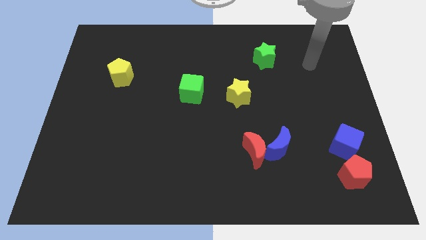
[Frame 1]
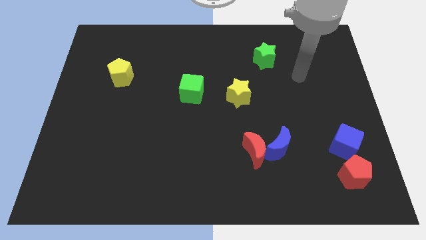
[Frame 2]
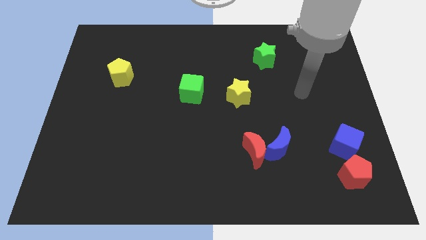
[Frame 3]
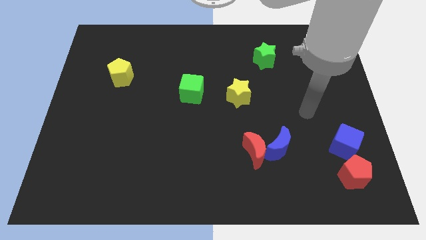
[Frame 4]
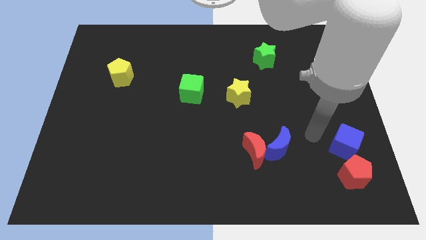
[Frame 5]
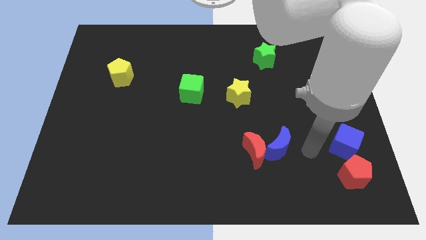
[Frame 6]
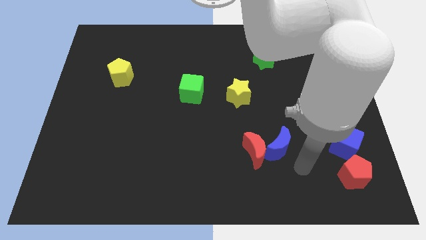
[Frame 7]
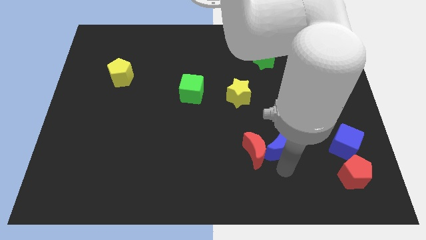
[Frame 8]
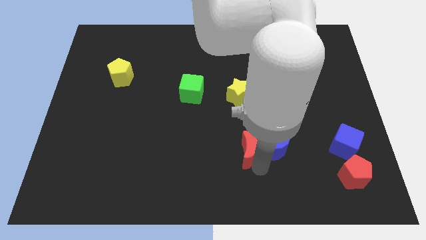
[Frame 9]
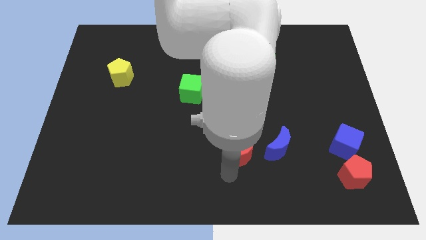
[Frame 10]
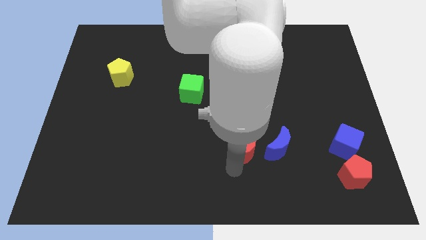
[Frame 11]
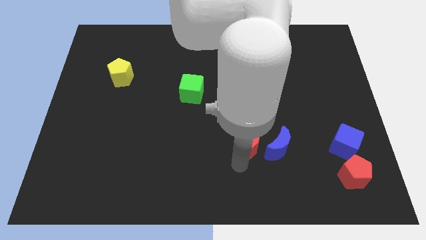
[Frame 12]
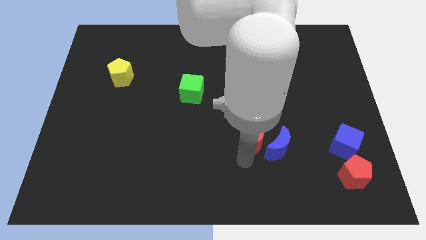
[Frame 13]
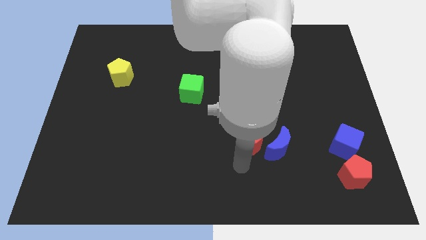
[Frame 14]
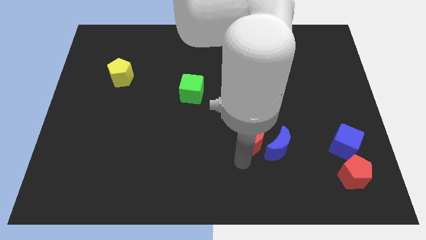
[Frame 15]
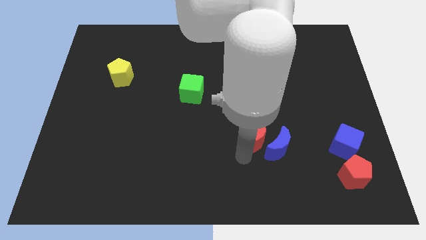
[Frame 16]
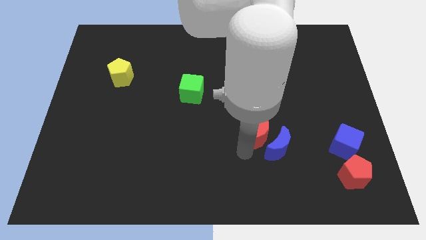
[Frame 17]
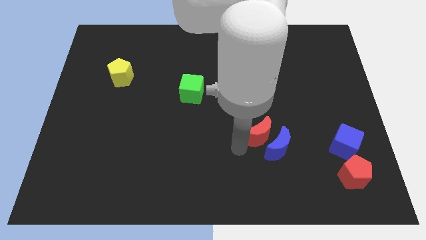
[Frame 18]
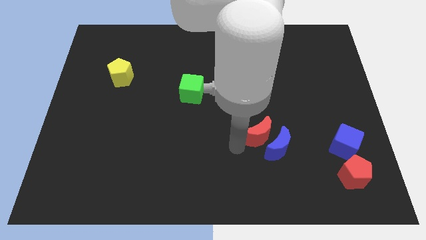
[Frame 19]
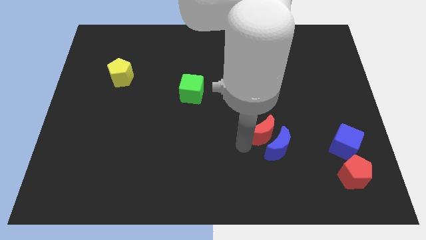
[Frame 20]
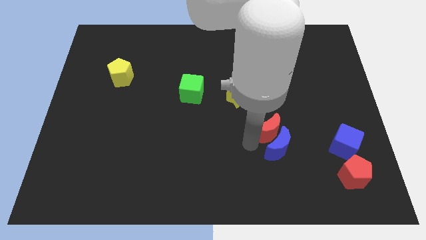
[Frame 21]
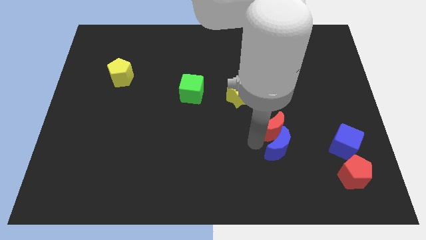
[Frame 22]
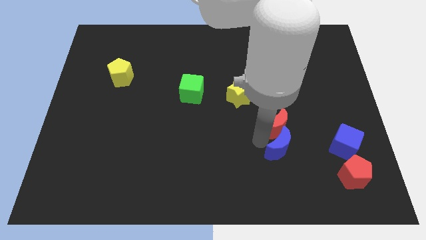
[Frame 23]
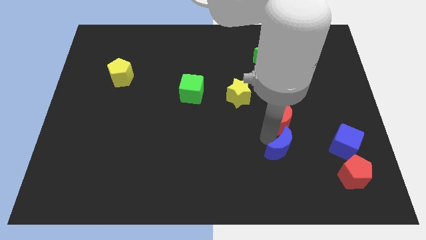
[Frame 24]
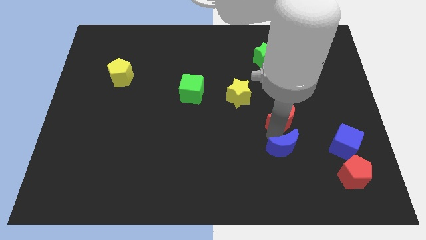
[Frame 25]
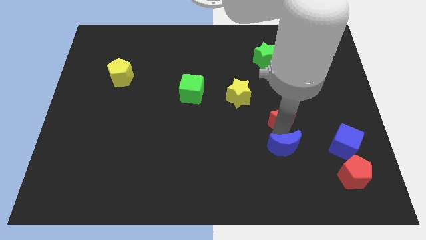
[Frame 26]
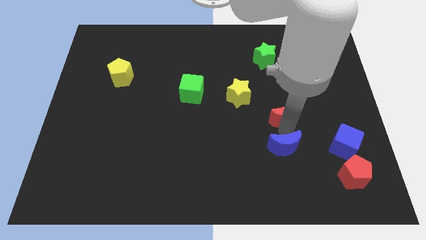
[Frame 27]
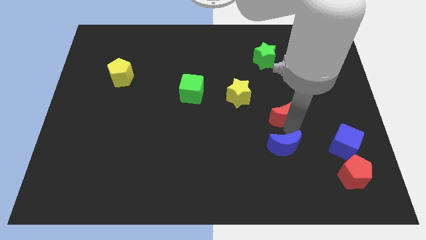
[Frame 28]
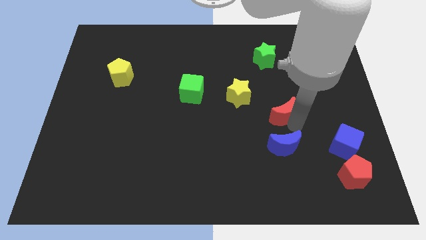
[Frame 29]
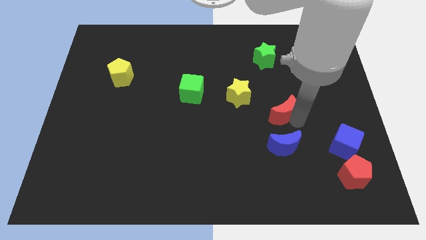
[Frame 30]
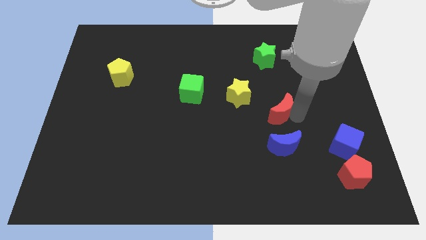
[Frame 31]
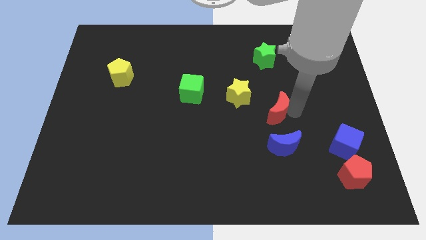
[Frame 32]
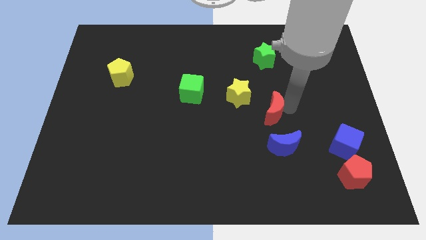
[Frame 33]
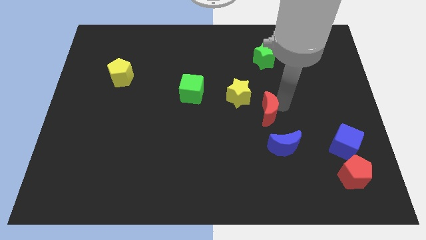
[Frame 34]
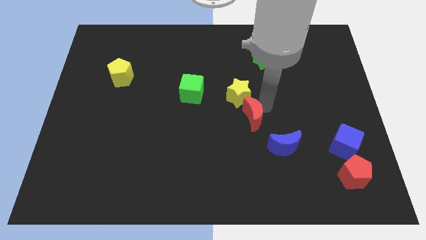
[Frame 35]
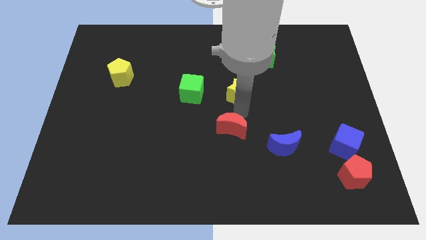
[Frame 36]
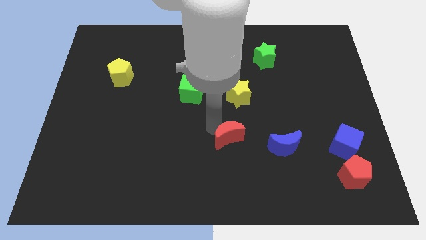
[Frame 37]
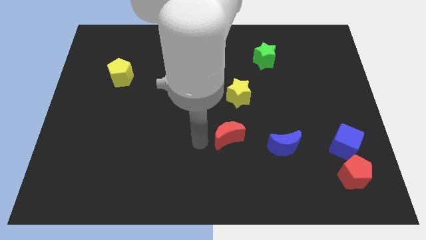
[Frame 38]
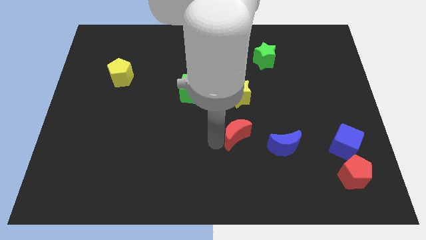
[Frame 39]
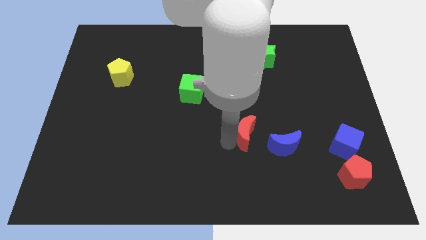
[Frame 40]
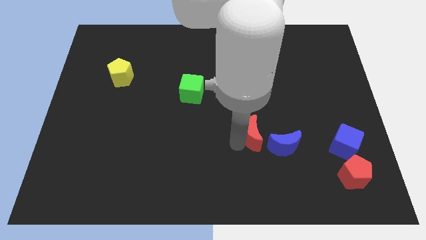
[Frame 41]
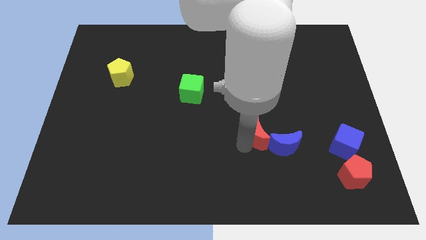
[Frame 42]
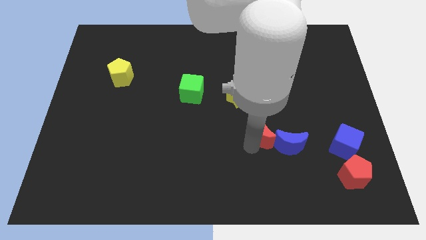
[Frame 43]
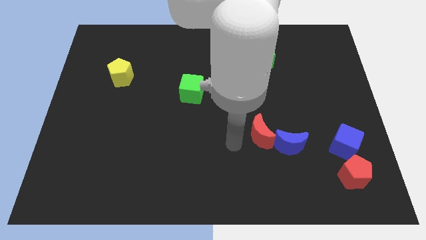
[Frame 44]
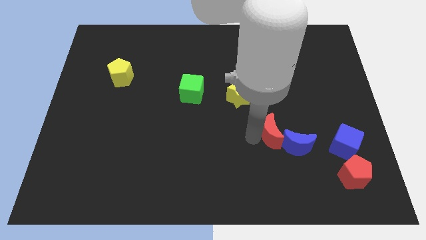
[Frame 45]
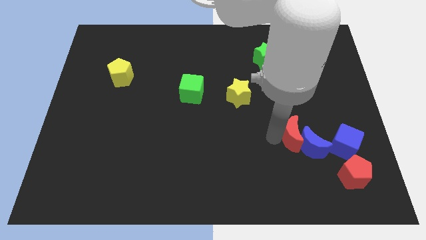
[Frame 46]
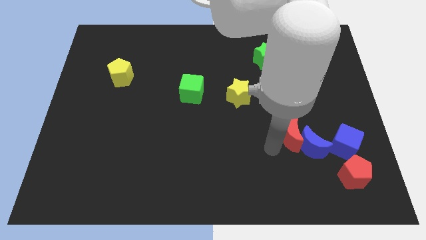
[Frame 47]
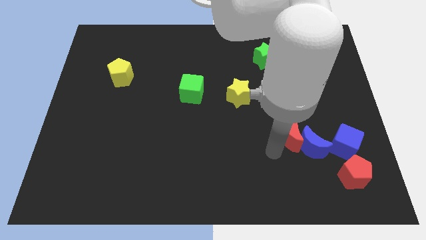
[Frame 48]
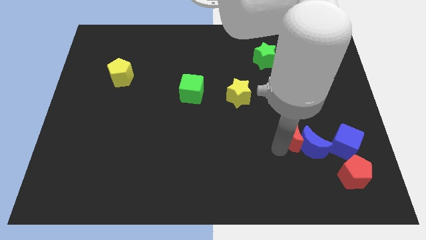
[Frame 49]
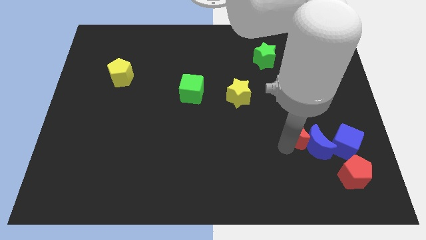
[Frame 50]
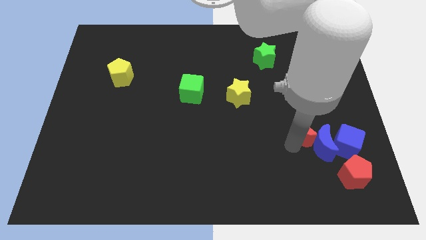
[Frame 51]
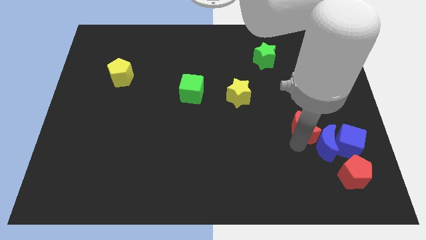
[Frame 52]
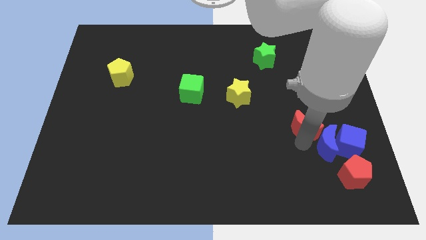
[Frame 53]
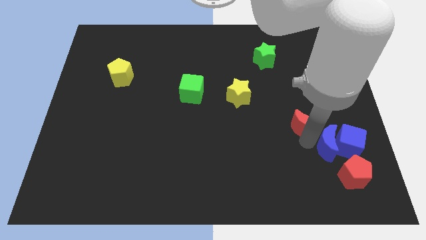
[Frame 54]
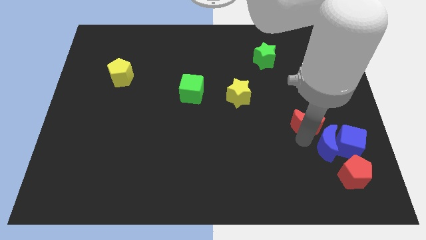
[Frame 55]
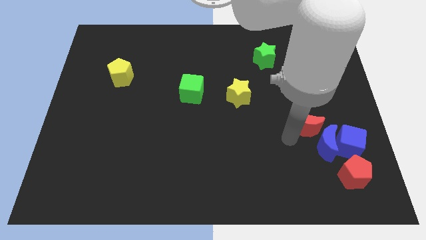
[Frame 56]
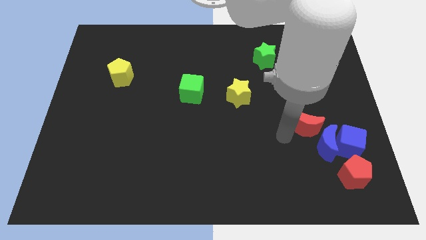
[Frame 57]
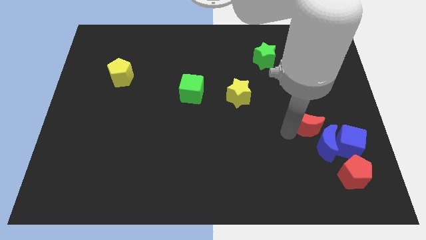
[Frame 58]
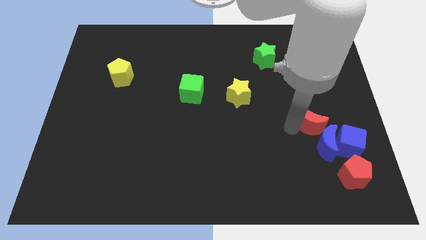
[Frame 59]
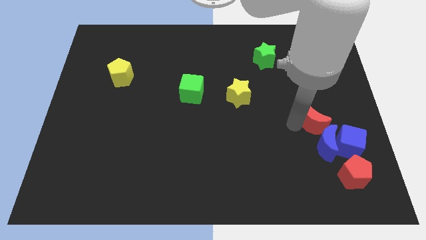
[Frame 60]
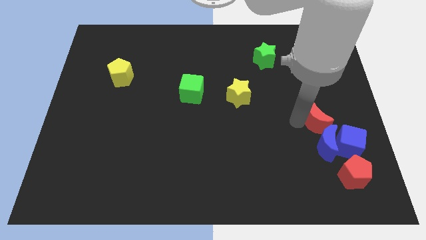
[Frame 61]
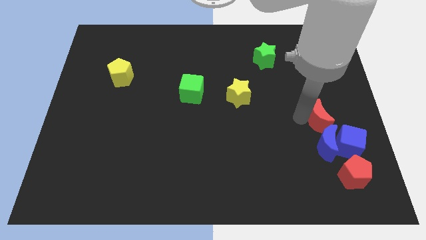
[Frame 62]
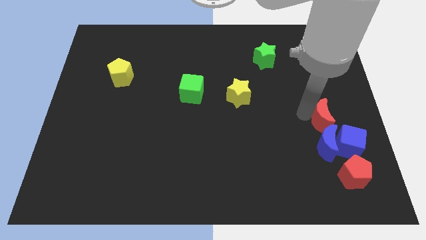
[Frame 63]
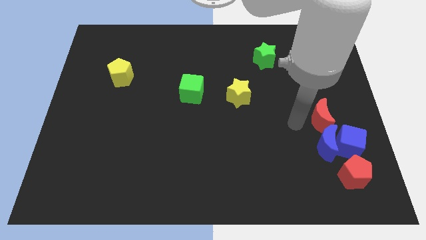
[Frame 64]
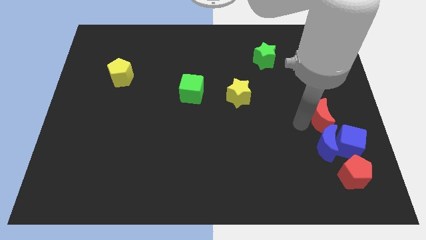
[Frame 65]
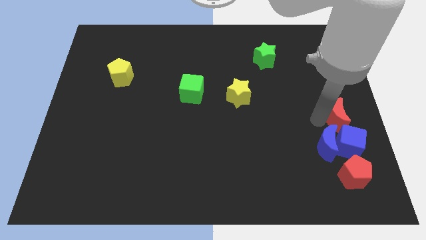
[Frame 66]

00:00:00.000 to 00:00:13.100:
slide the red moon to the right side

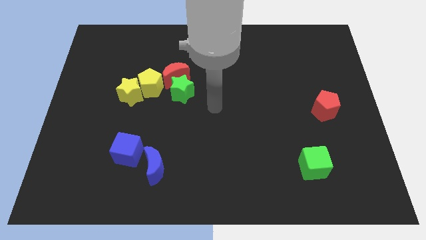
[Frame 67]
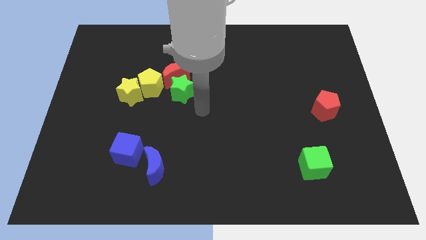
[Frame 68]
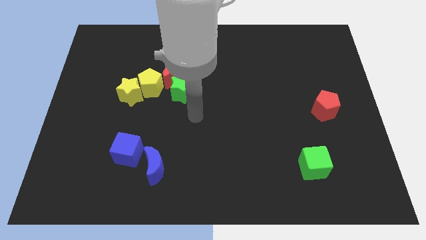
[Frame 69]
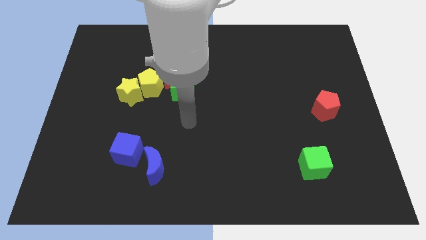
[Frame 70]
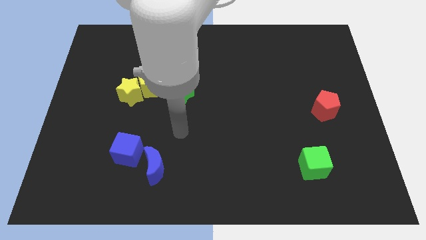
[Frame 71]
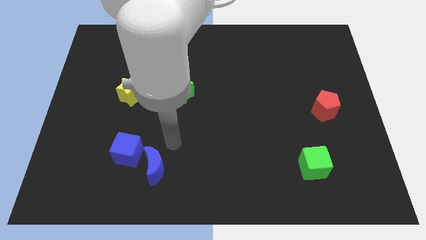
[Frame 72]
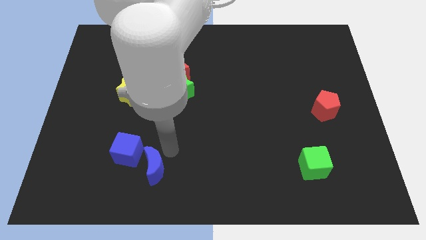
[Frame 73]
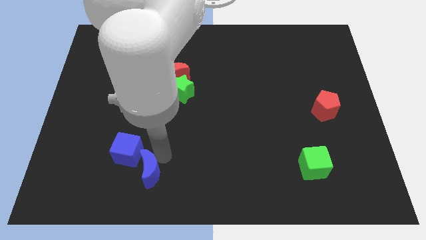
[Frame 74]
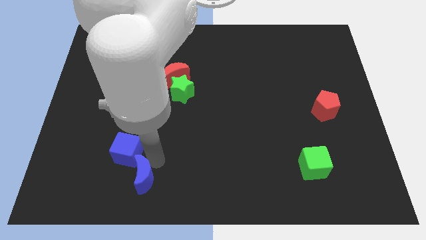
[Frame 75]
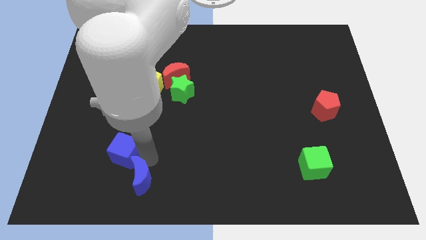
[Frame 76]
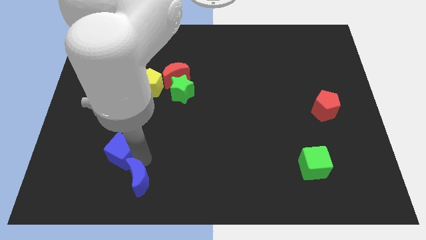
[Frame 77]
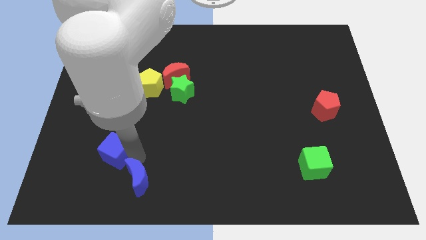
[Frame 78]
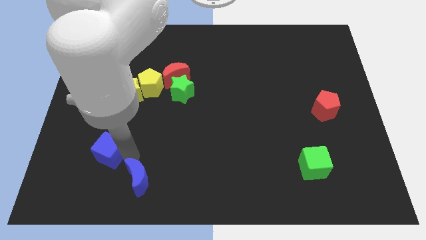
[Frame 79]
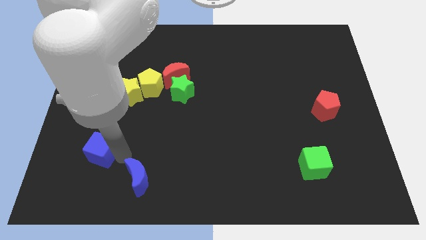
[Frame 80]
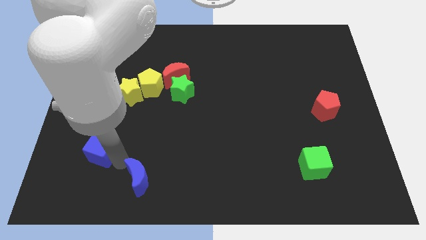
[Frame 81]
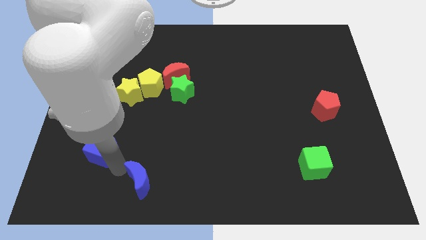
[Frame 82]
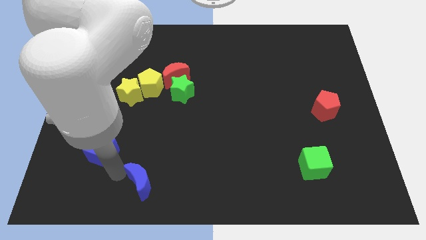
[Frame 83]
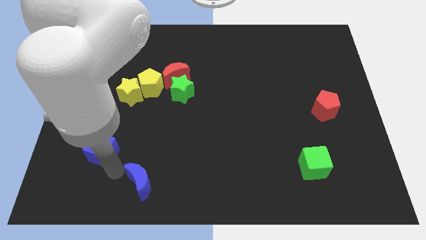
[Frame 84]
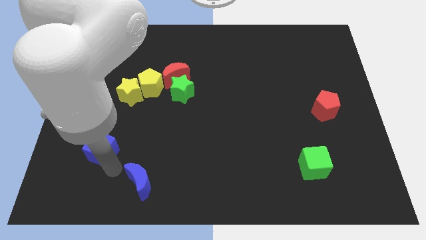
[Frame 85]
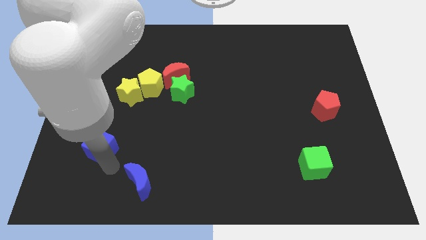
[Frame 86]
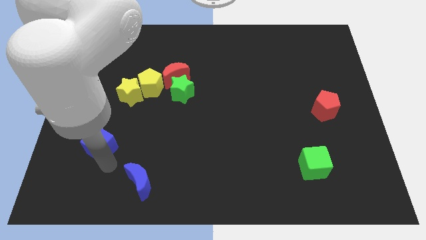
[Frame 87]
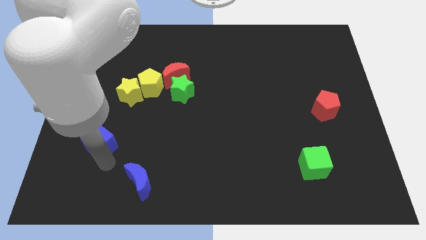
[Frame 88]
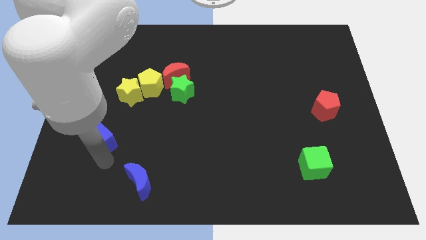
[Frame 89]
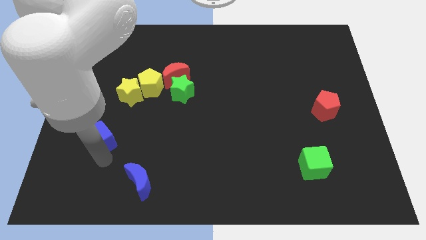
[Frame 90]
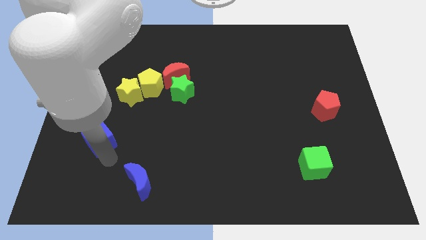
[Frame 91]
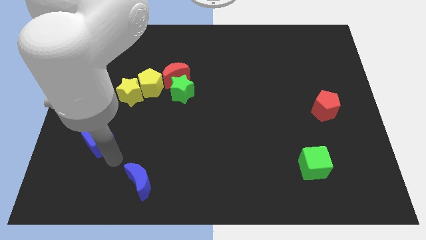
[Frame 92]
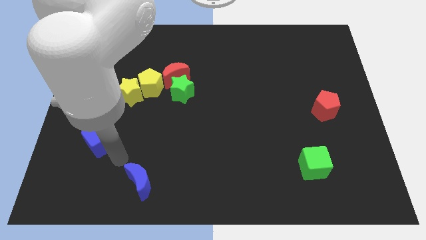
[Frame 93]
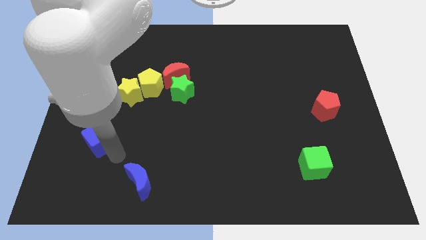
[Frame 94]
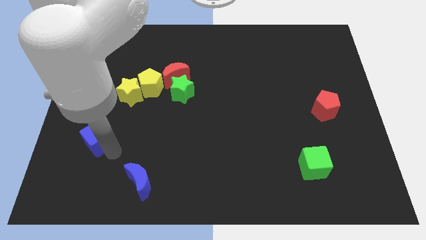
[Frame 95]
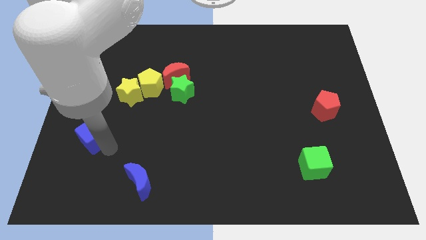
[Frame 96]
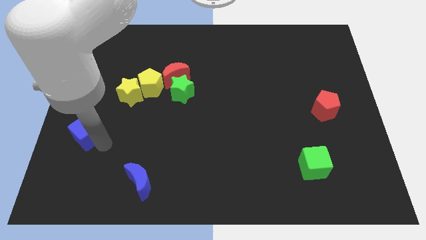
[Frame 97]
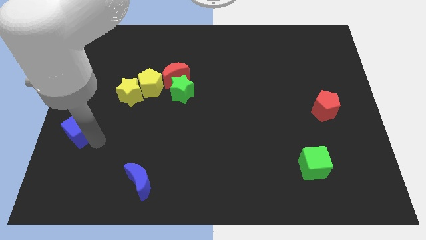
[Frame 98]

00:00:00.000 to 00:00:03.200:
push the blue cube to the left side
